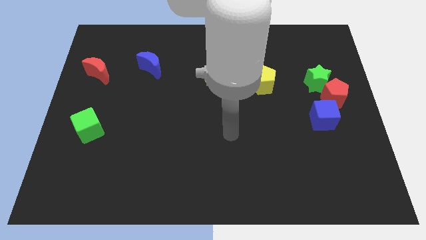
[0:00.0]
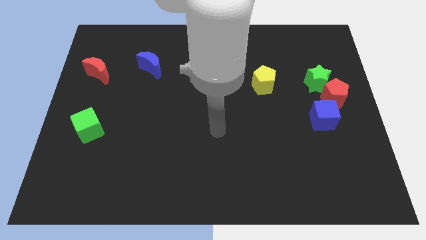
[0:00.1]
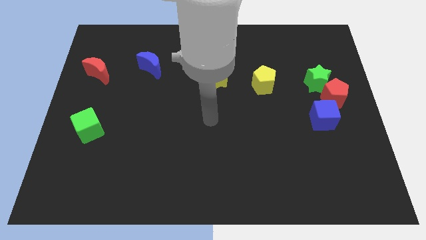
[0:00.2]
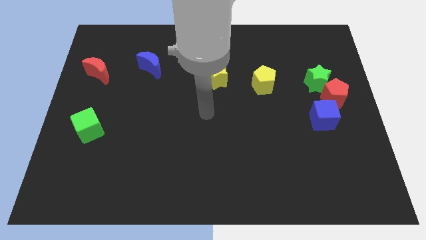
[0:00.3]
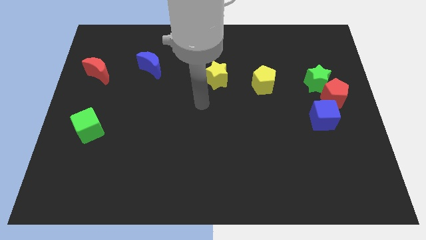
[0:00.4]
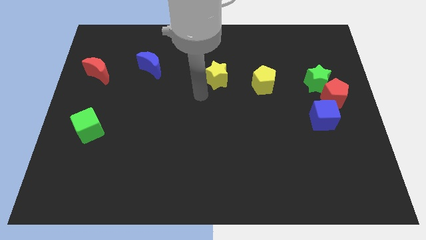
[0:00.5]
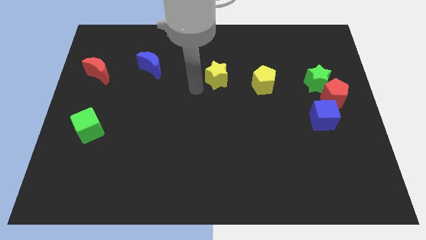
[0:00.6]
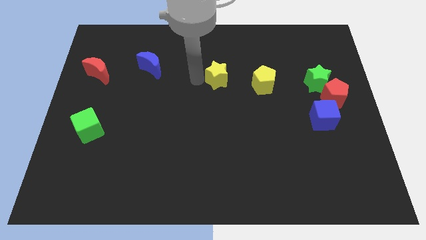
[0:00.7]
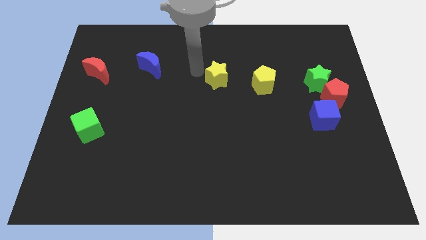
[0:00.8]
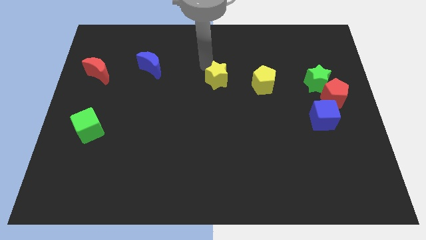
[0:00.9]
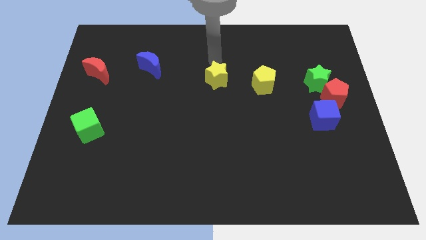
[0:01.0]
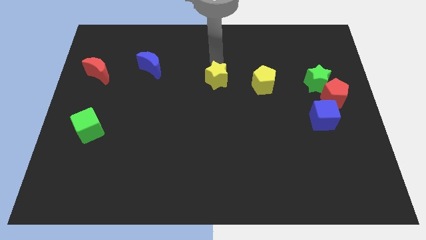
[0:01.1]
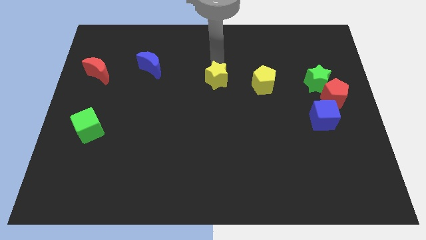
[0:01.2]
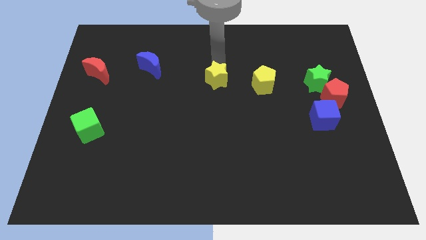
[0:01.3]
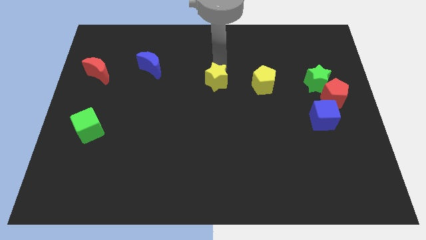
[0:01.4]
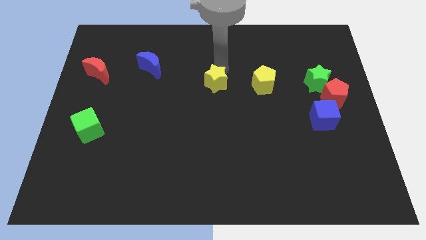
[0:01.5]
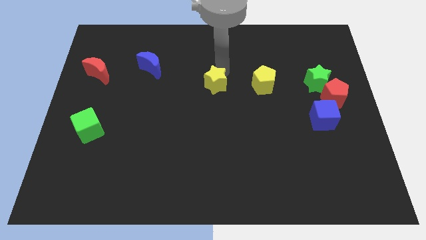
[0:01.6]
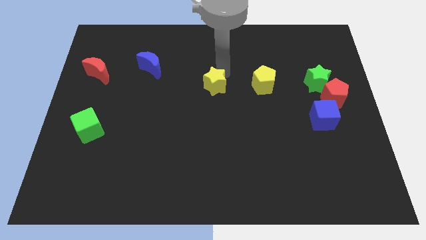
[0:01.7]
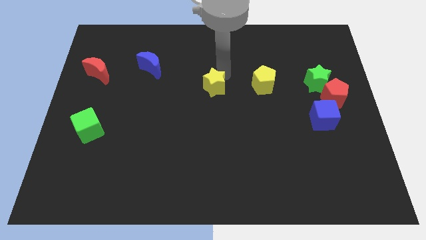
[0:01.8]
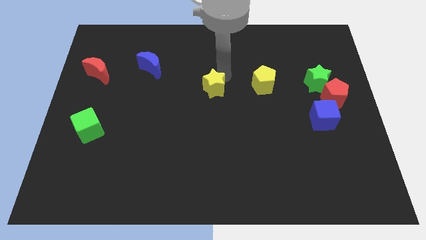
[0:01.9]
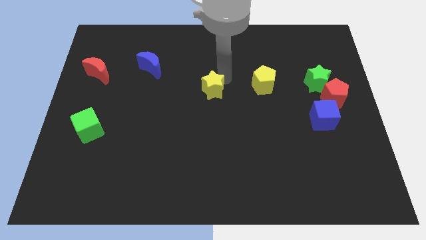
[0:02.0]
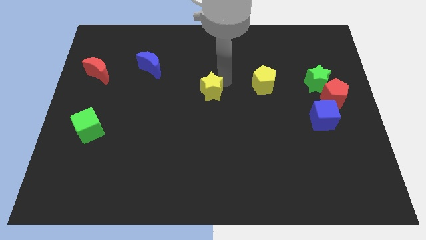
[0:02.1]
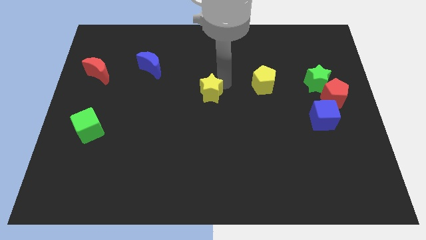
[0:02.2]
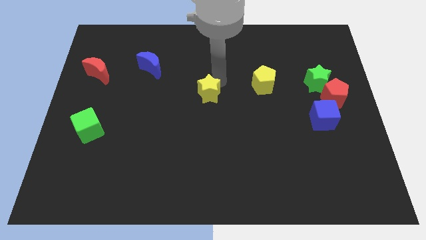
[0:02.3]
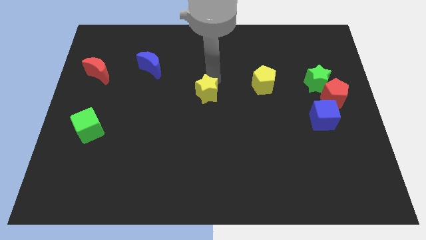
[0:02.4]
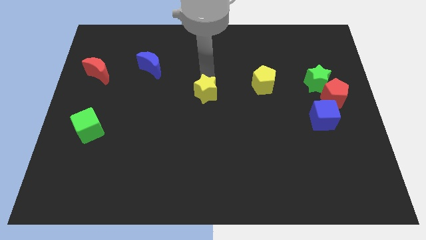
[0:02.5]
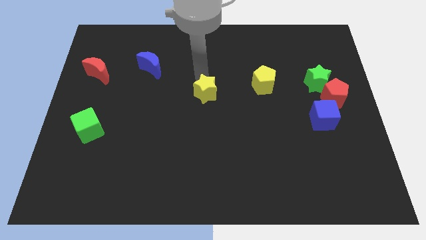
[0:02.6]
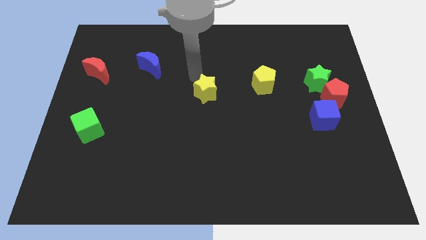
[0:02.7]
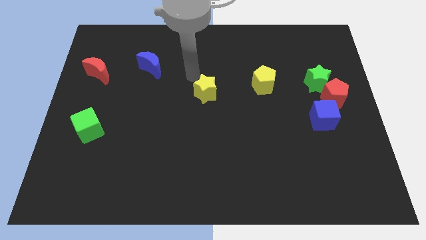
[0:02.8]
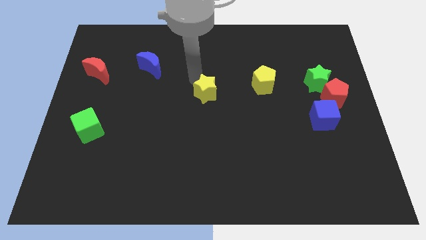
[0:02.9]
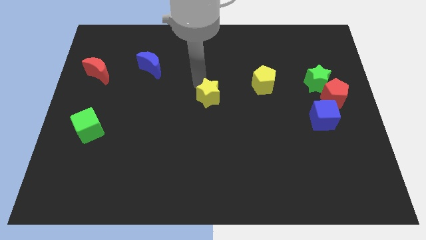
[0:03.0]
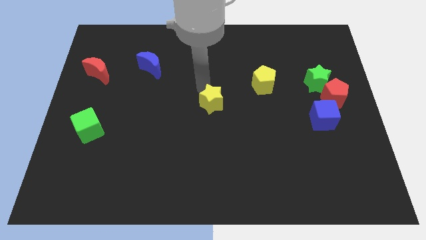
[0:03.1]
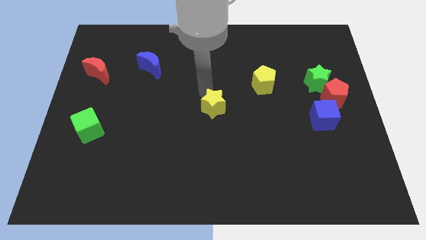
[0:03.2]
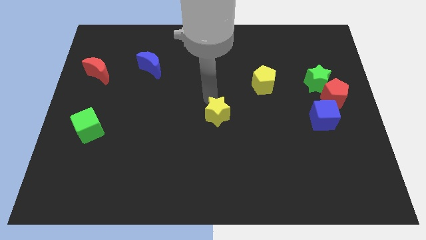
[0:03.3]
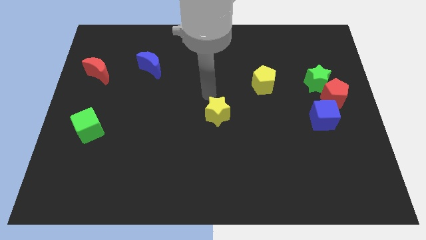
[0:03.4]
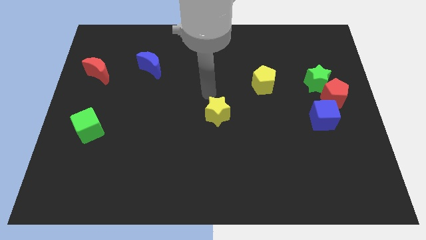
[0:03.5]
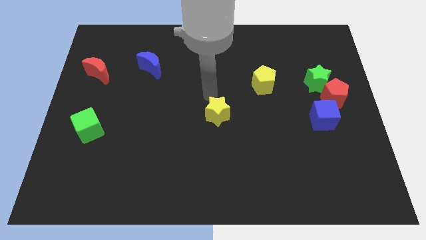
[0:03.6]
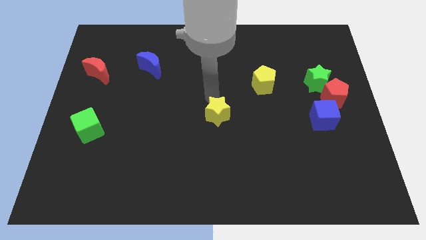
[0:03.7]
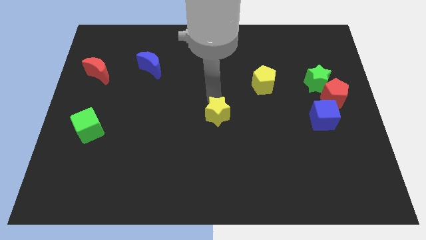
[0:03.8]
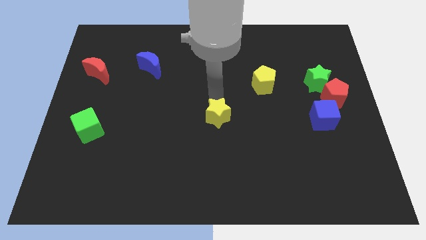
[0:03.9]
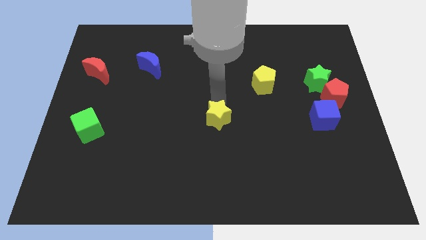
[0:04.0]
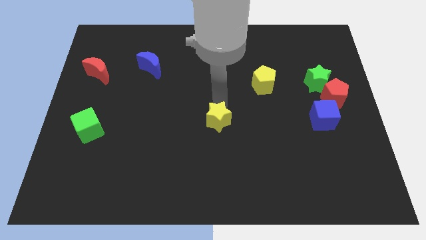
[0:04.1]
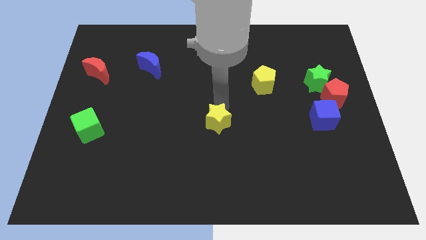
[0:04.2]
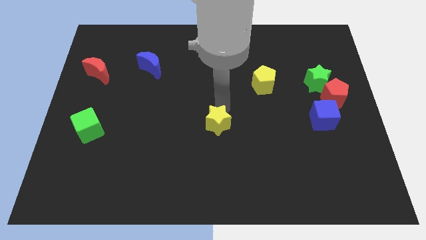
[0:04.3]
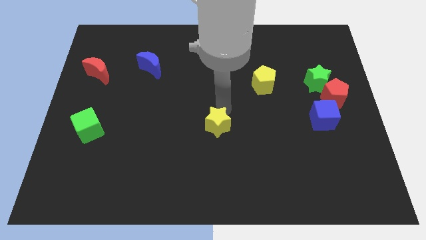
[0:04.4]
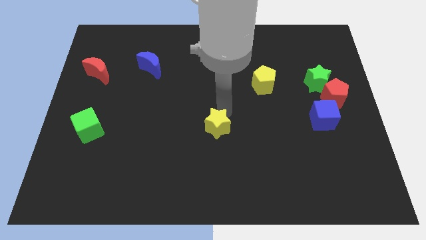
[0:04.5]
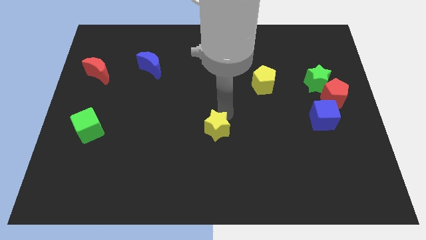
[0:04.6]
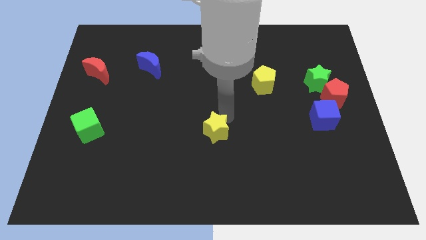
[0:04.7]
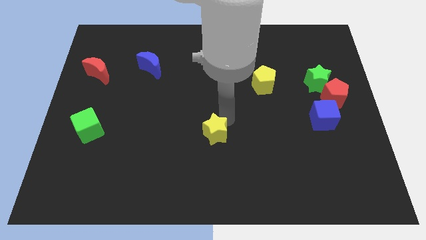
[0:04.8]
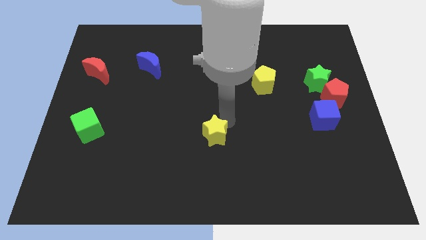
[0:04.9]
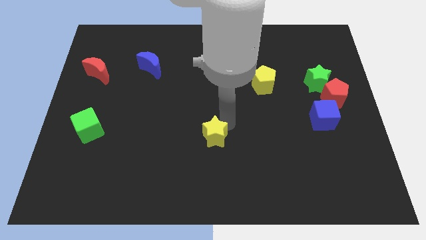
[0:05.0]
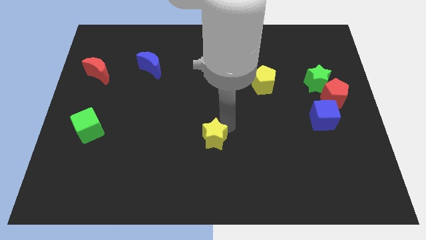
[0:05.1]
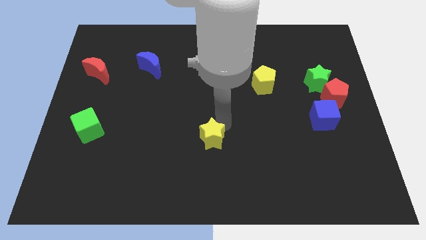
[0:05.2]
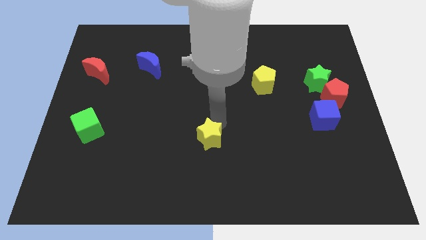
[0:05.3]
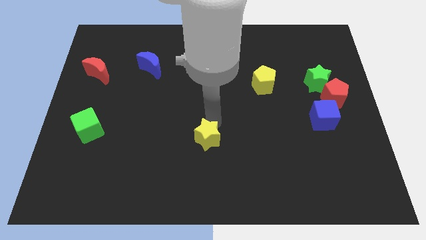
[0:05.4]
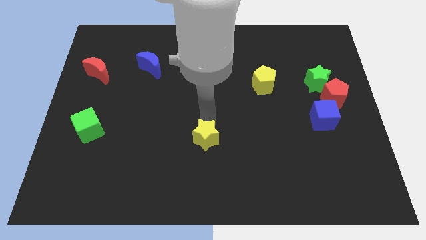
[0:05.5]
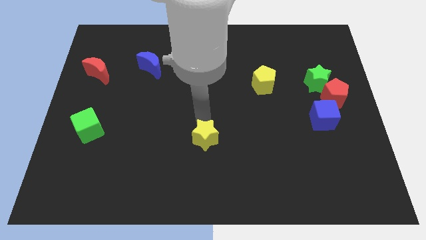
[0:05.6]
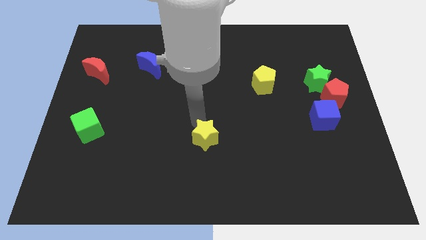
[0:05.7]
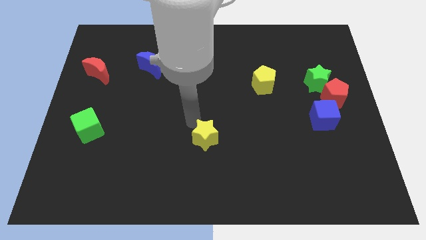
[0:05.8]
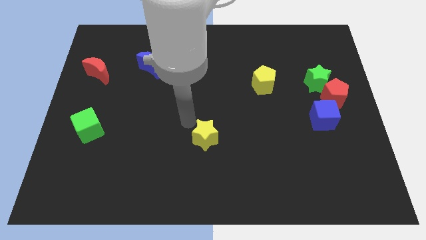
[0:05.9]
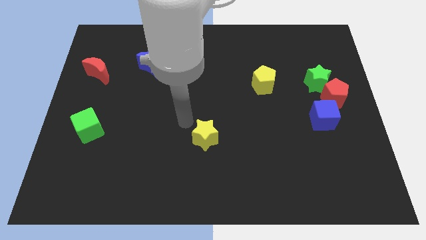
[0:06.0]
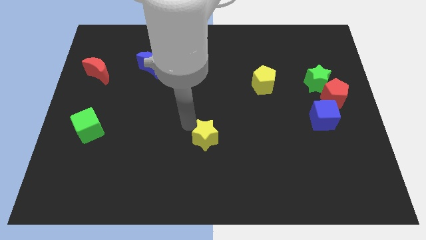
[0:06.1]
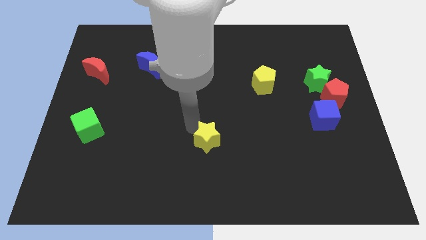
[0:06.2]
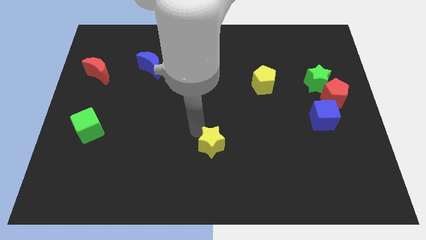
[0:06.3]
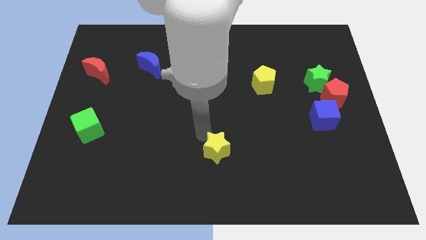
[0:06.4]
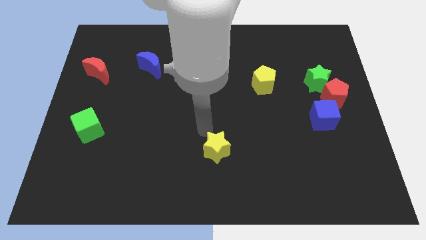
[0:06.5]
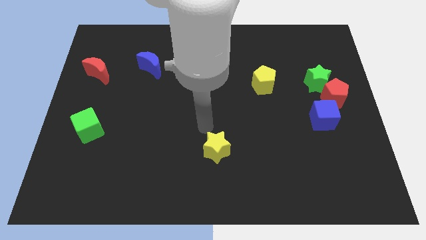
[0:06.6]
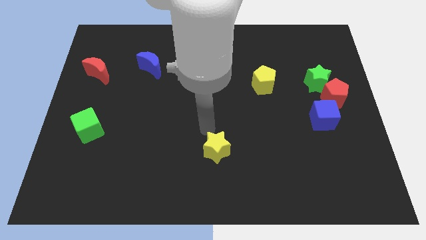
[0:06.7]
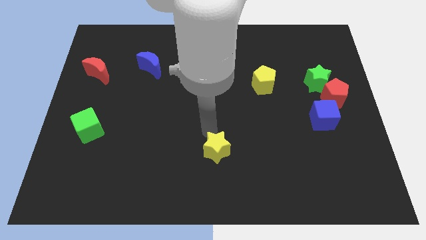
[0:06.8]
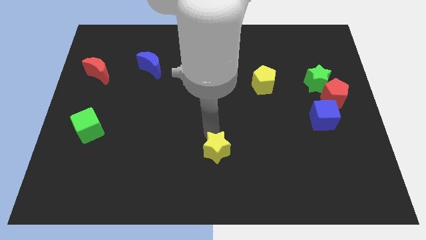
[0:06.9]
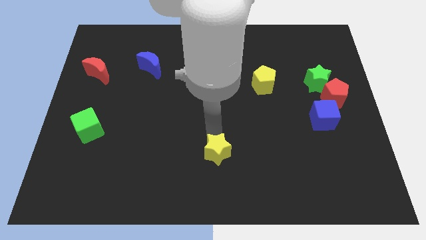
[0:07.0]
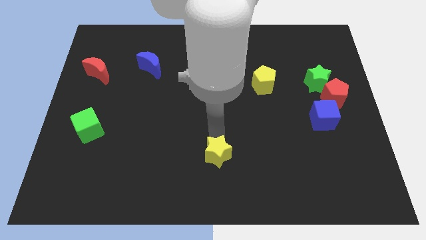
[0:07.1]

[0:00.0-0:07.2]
slide the yellow star to the bottom
